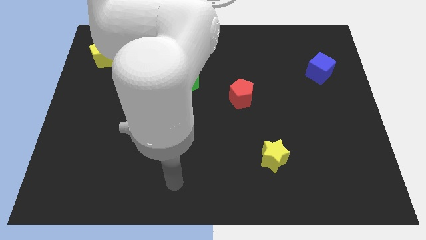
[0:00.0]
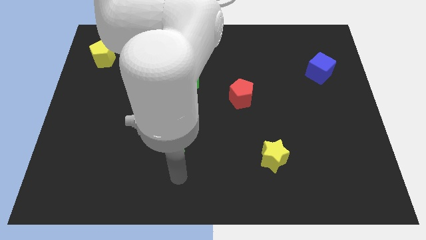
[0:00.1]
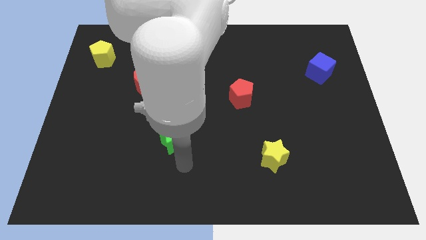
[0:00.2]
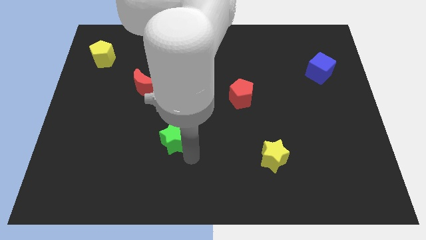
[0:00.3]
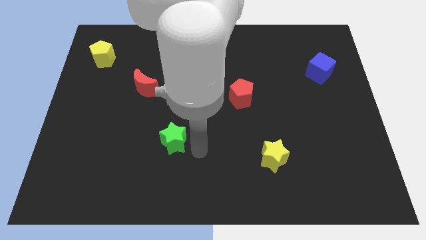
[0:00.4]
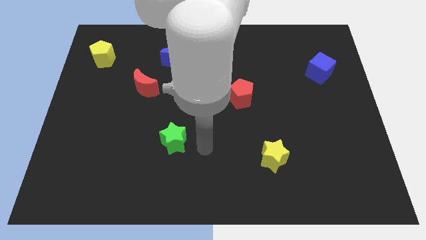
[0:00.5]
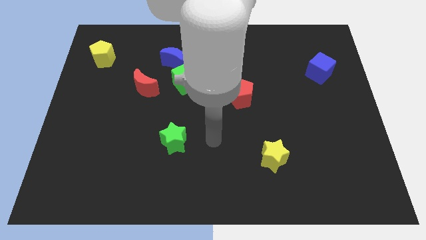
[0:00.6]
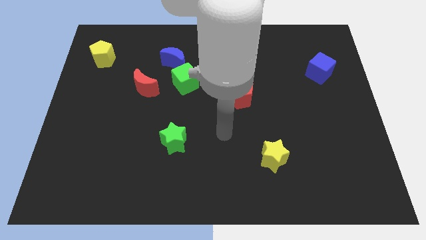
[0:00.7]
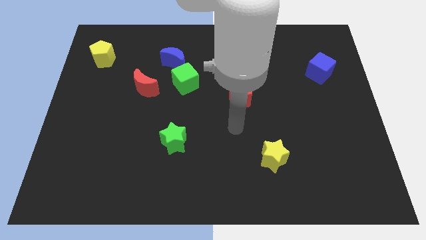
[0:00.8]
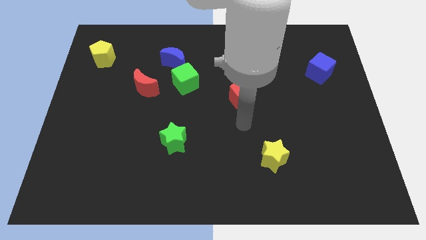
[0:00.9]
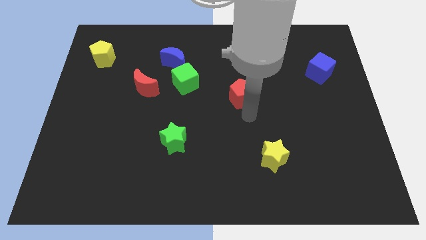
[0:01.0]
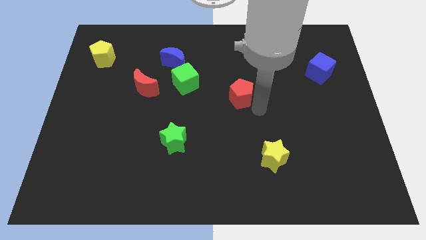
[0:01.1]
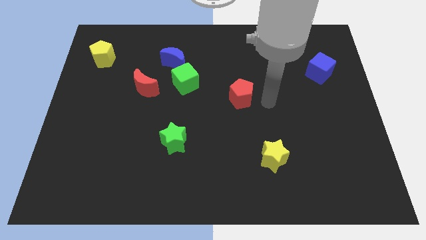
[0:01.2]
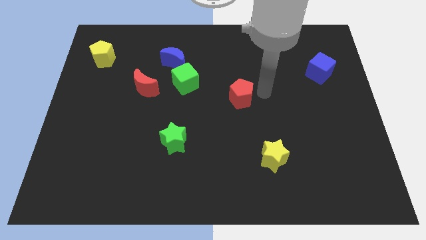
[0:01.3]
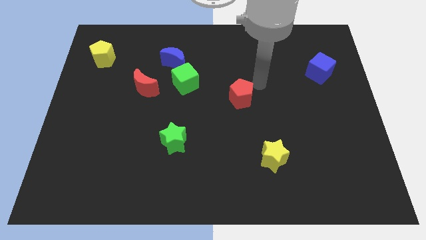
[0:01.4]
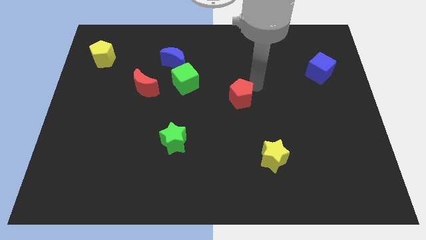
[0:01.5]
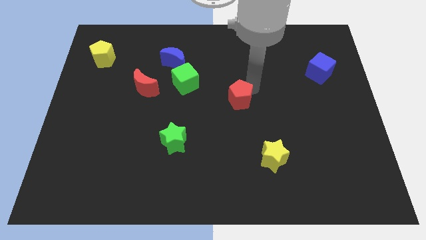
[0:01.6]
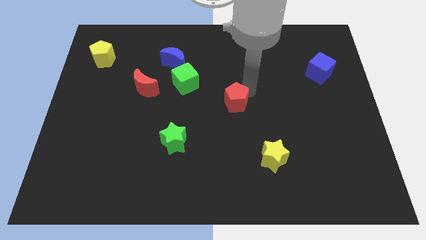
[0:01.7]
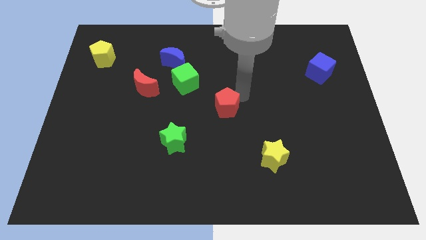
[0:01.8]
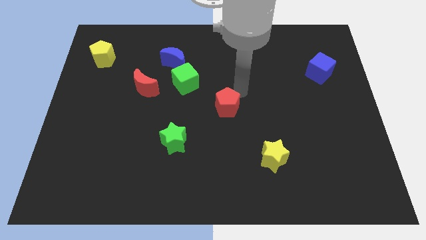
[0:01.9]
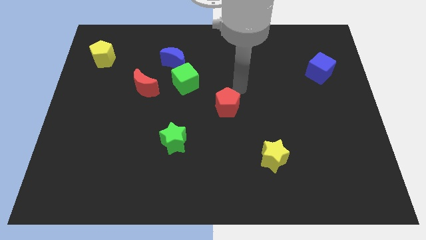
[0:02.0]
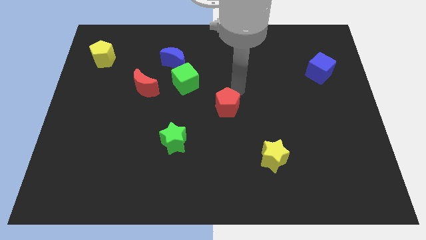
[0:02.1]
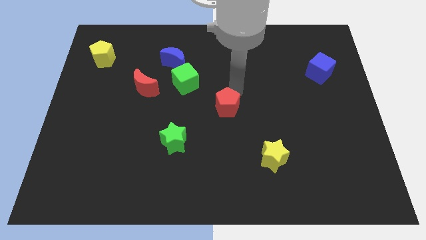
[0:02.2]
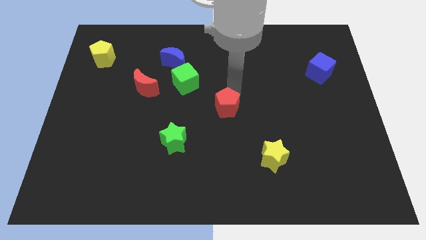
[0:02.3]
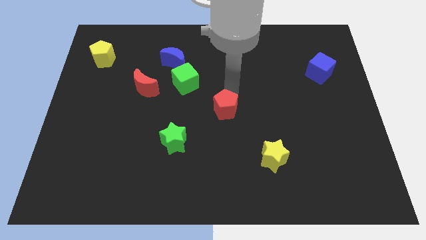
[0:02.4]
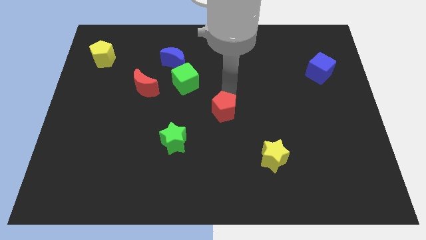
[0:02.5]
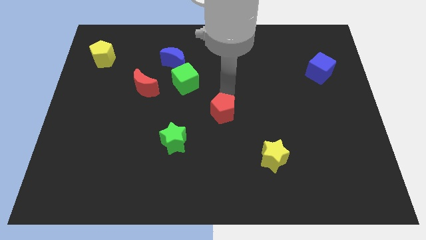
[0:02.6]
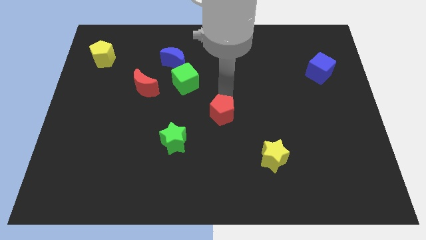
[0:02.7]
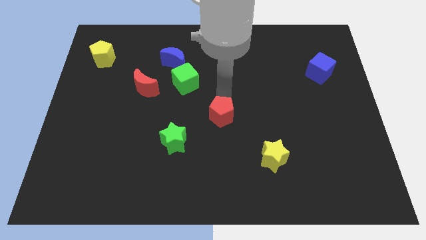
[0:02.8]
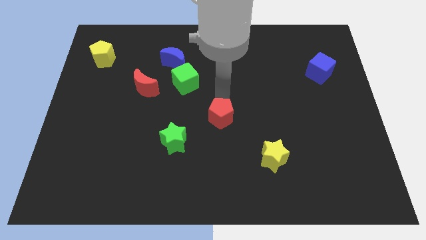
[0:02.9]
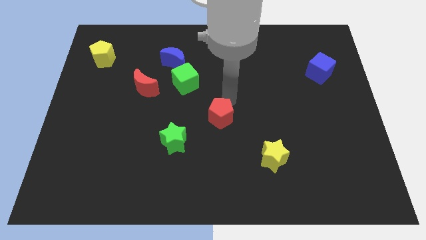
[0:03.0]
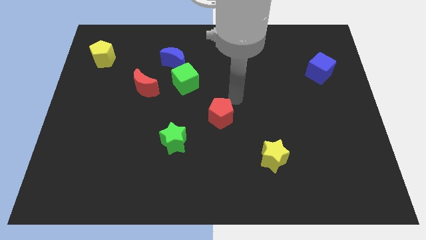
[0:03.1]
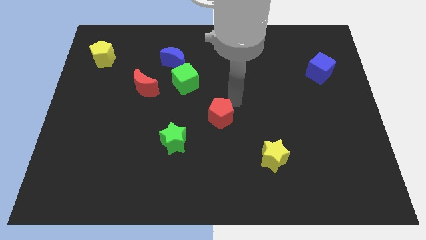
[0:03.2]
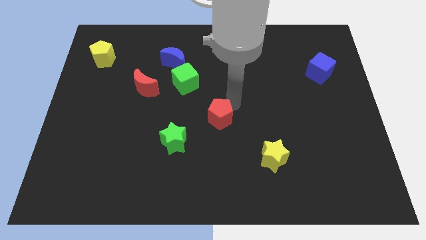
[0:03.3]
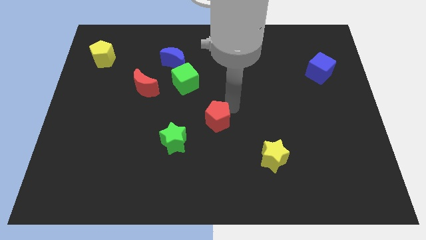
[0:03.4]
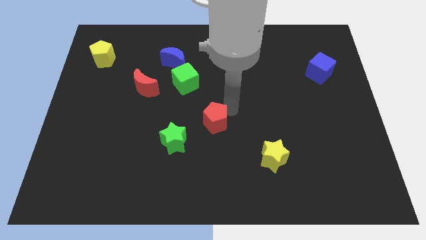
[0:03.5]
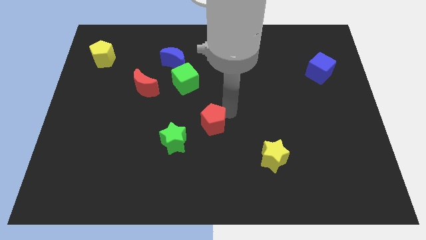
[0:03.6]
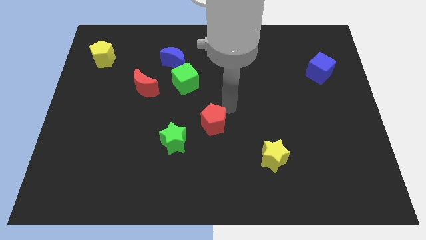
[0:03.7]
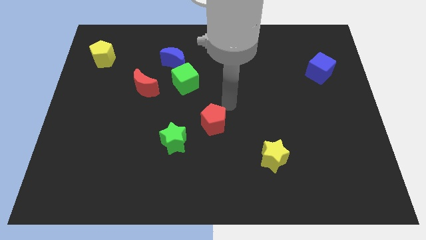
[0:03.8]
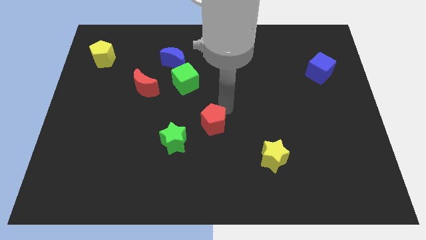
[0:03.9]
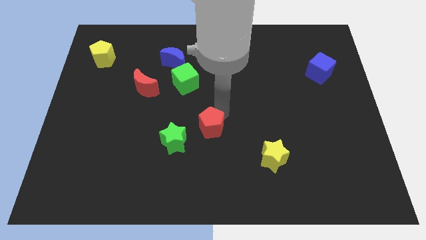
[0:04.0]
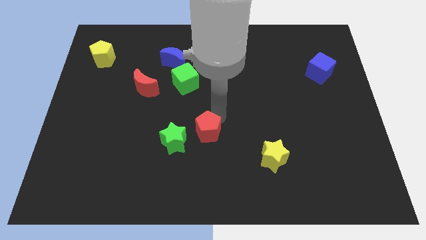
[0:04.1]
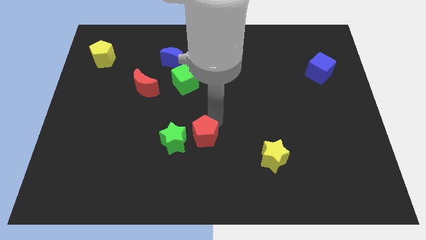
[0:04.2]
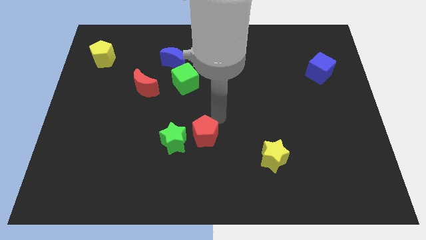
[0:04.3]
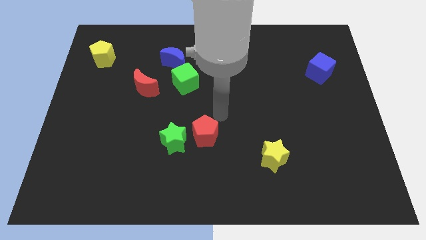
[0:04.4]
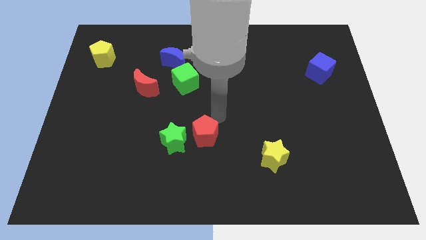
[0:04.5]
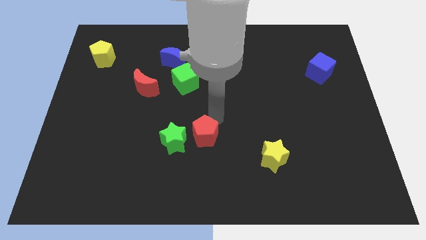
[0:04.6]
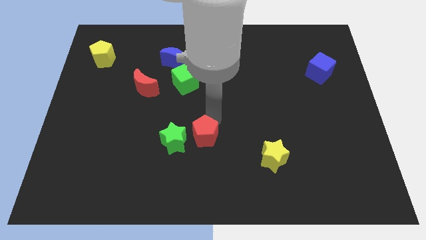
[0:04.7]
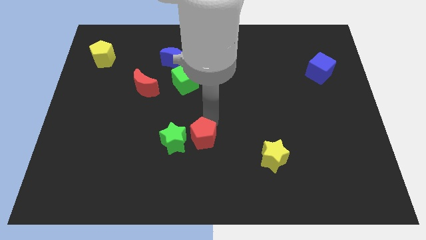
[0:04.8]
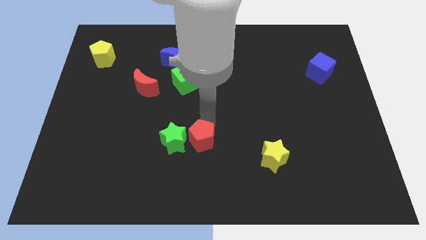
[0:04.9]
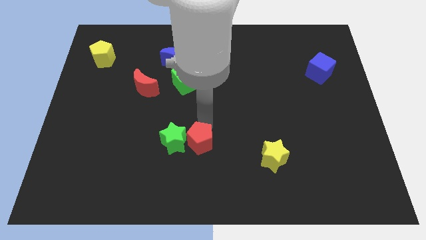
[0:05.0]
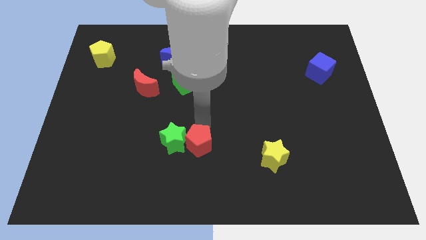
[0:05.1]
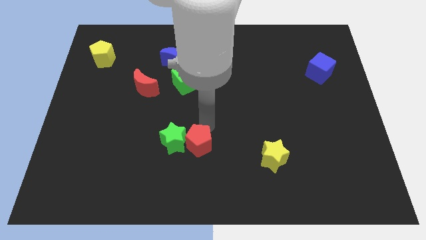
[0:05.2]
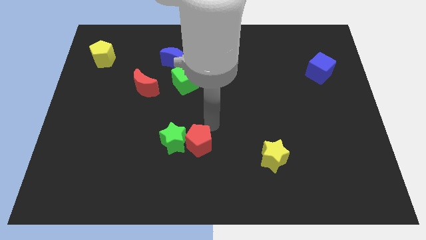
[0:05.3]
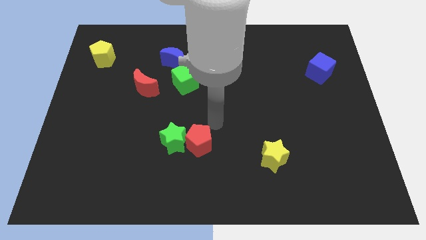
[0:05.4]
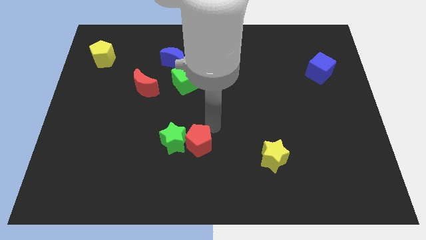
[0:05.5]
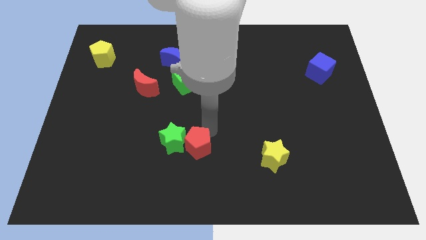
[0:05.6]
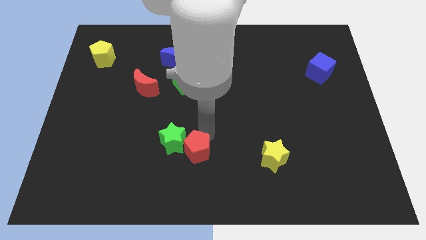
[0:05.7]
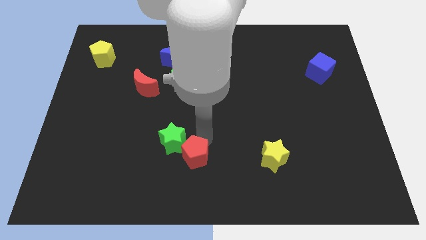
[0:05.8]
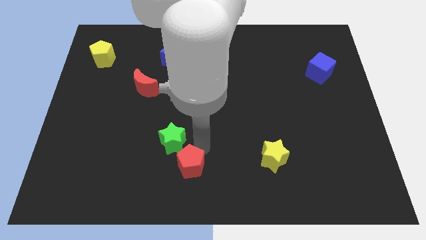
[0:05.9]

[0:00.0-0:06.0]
push the red pentagon diagonally down and left

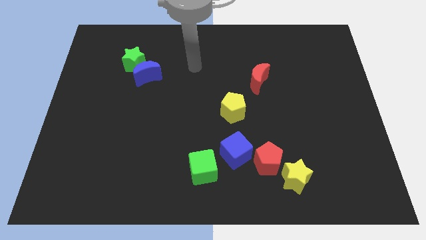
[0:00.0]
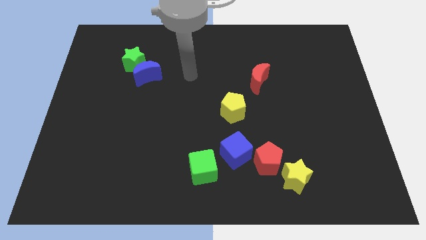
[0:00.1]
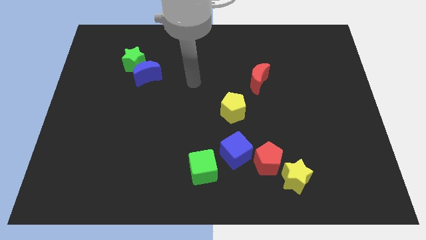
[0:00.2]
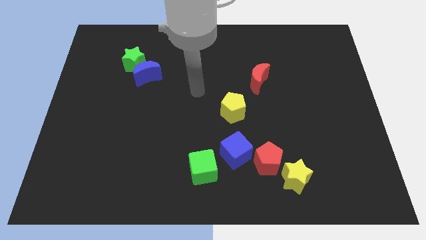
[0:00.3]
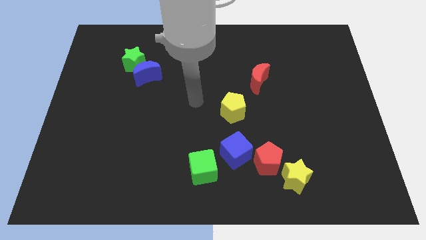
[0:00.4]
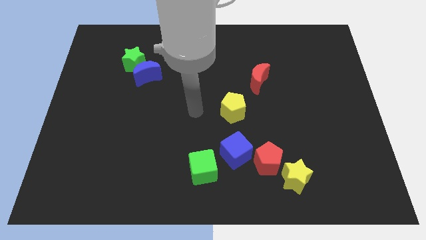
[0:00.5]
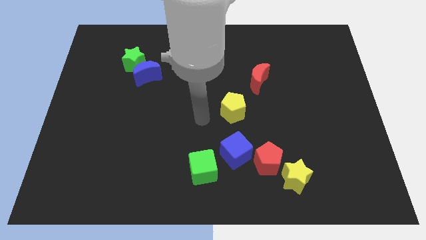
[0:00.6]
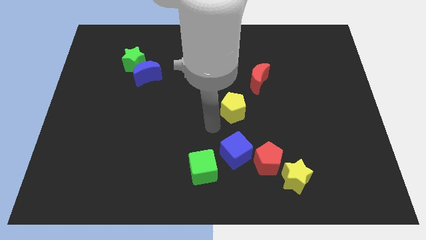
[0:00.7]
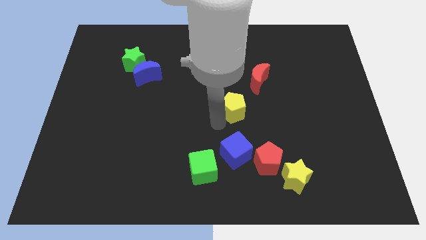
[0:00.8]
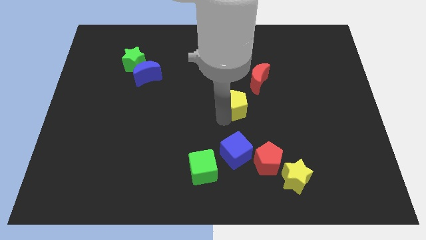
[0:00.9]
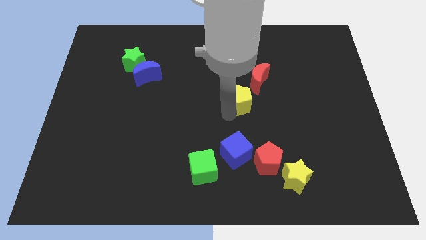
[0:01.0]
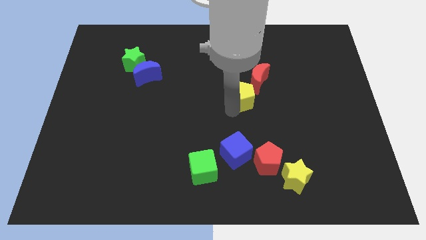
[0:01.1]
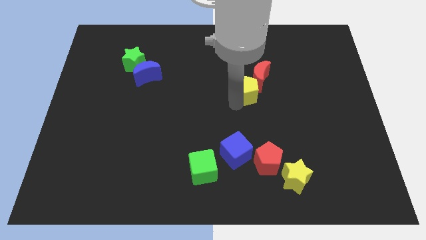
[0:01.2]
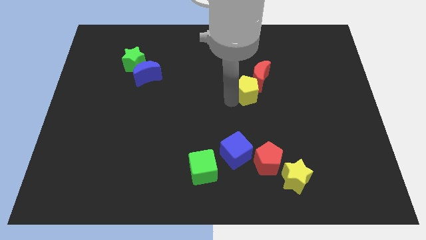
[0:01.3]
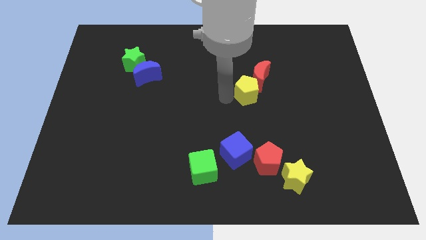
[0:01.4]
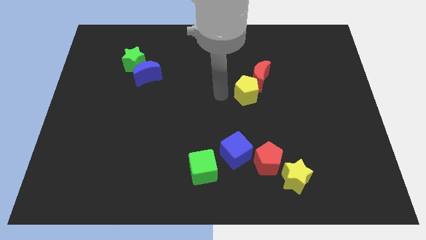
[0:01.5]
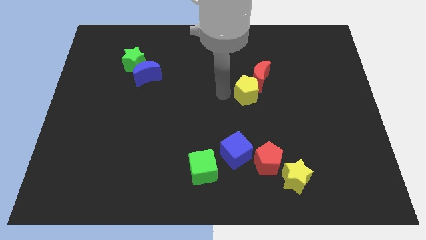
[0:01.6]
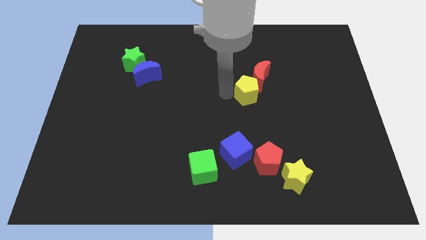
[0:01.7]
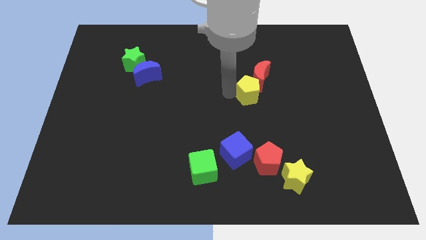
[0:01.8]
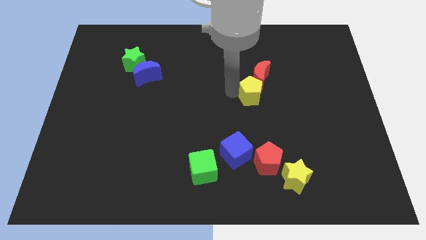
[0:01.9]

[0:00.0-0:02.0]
slightly slide the yellow pentagon up and to the right

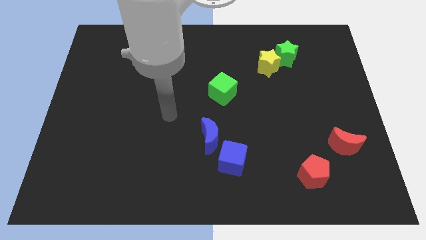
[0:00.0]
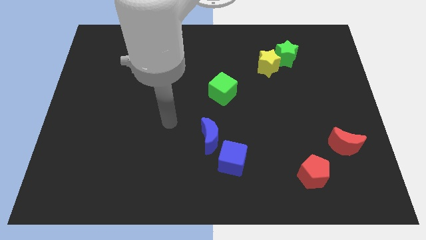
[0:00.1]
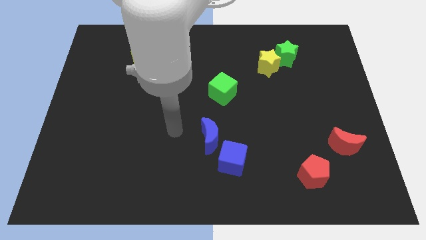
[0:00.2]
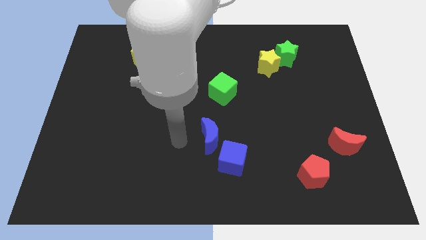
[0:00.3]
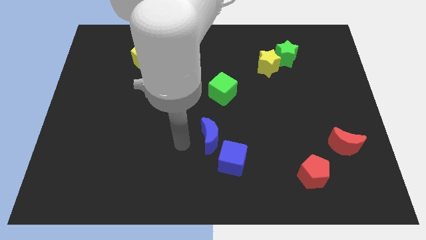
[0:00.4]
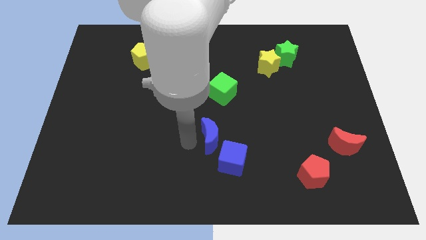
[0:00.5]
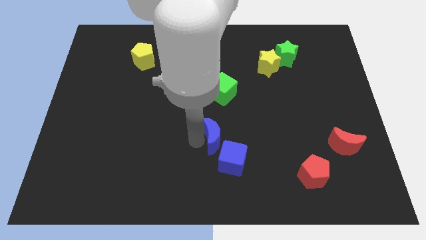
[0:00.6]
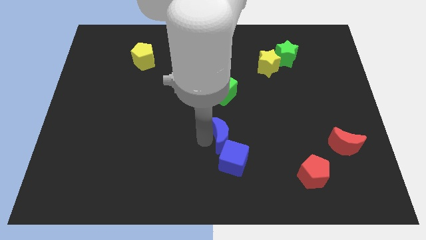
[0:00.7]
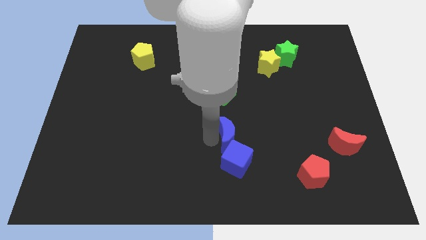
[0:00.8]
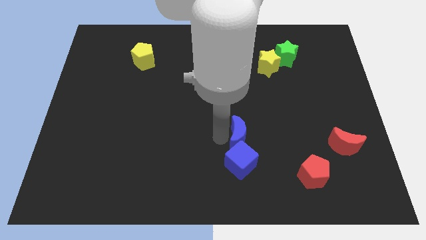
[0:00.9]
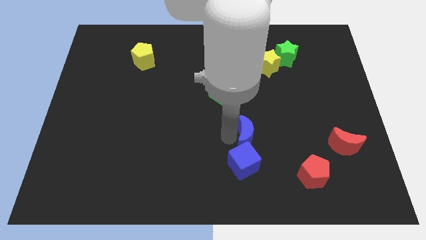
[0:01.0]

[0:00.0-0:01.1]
slide the blue moon right slightly
